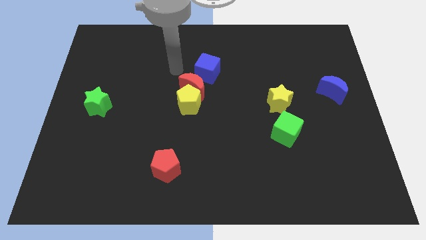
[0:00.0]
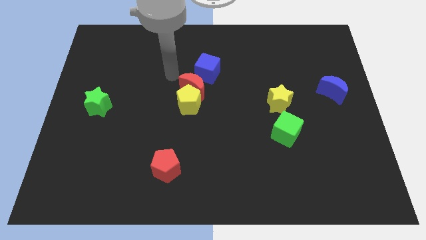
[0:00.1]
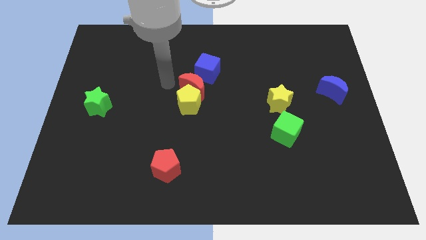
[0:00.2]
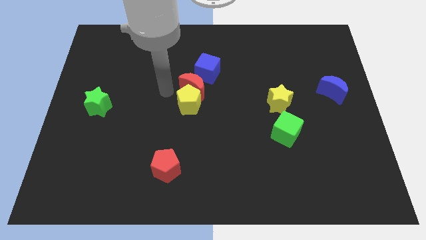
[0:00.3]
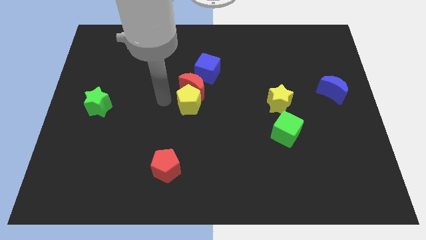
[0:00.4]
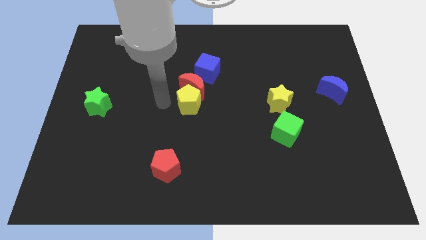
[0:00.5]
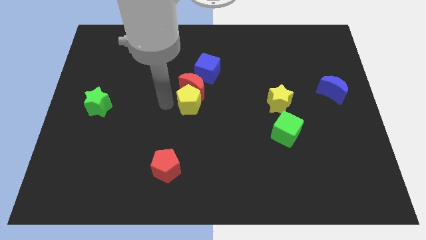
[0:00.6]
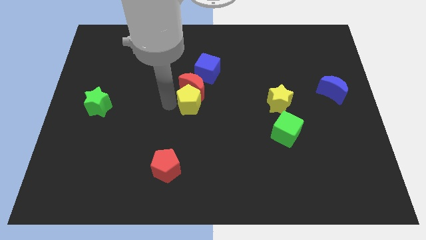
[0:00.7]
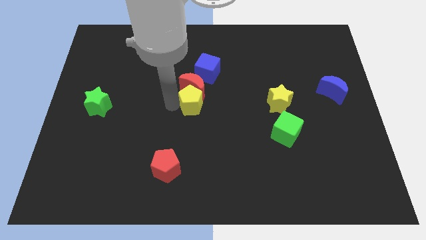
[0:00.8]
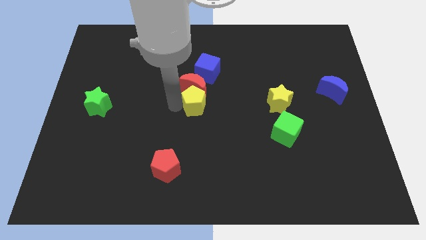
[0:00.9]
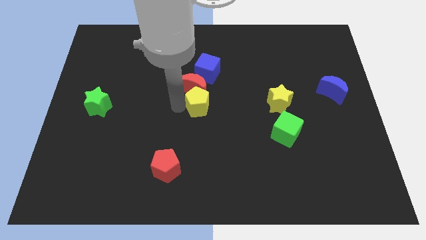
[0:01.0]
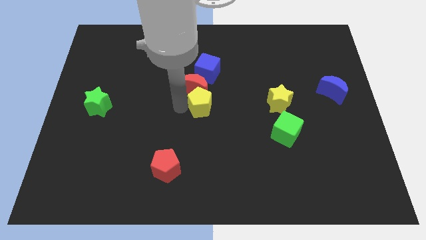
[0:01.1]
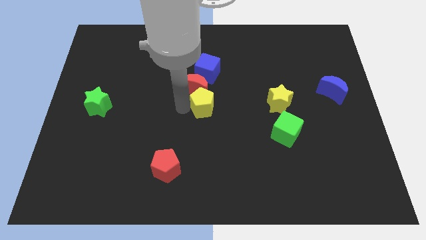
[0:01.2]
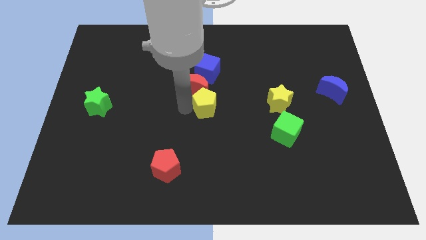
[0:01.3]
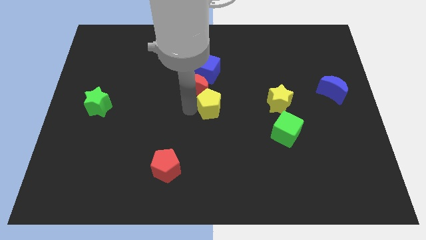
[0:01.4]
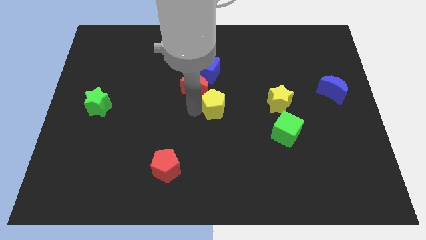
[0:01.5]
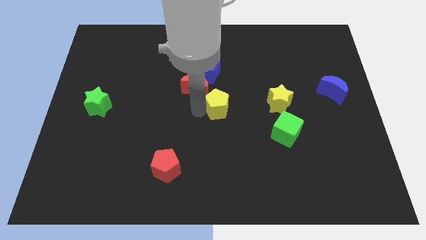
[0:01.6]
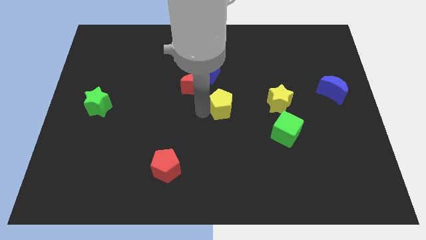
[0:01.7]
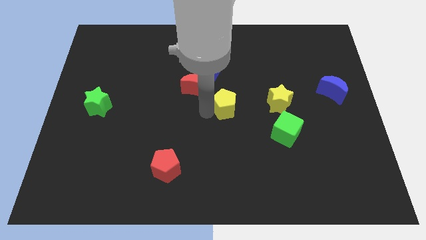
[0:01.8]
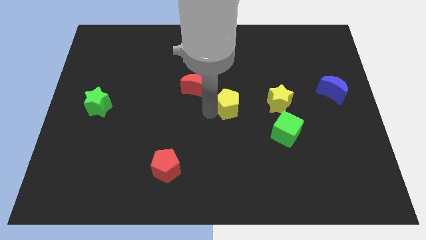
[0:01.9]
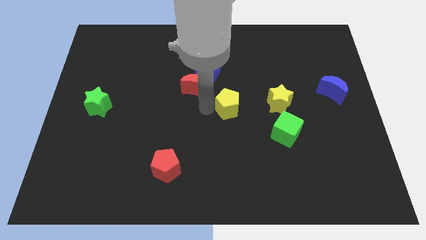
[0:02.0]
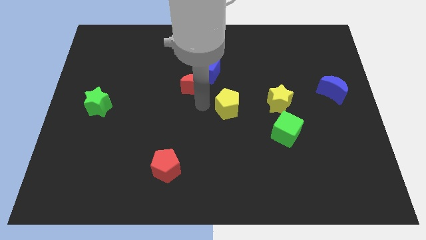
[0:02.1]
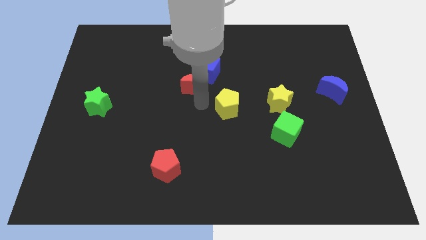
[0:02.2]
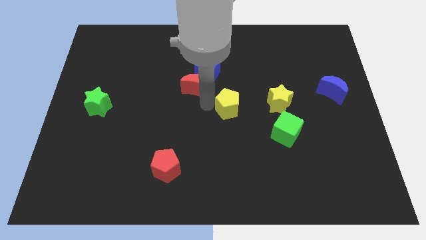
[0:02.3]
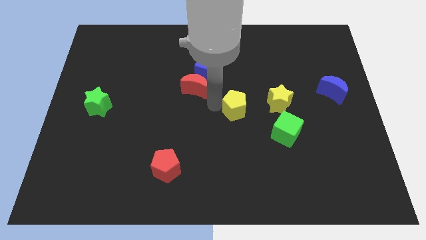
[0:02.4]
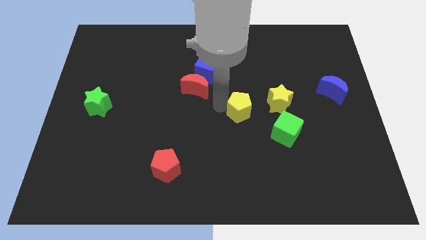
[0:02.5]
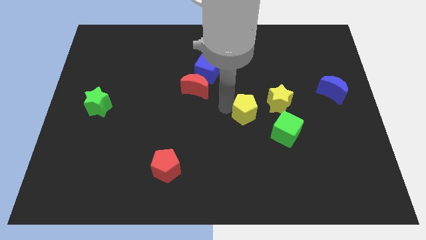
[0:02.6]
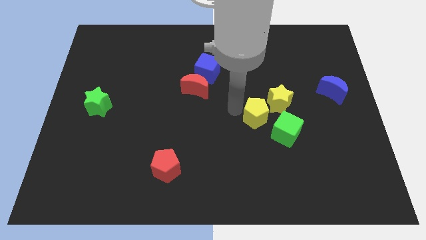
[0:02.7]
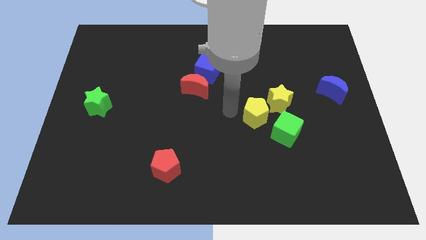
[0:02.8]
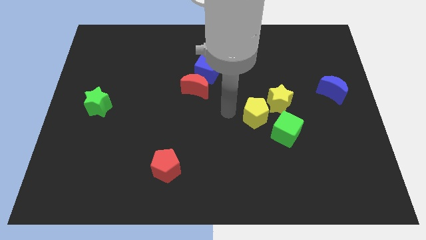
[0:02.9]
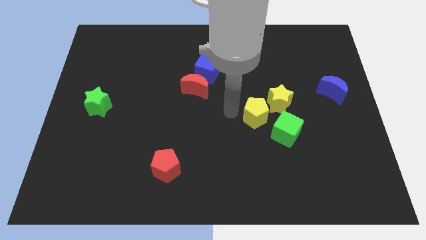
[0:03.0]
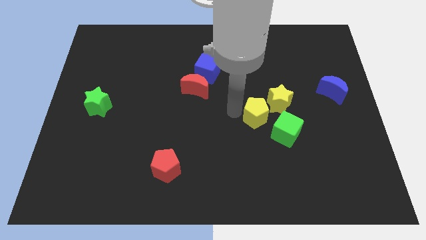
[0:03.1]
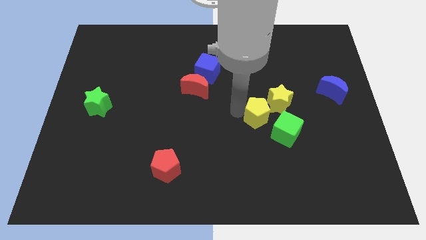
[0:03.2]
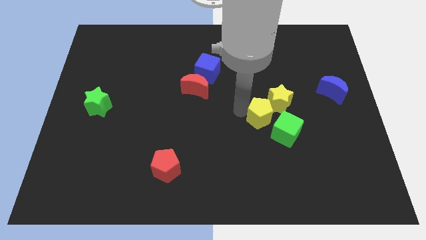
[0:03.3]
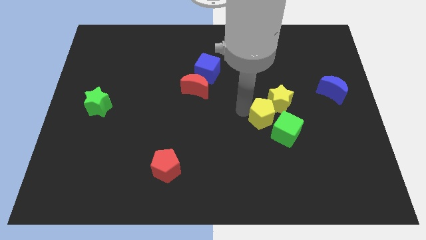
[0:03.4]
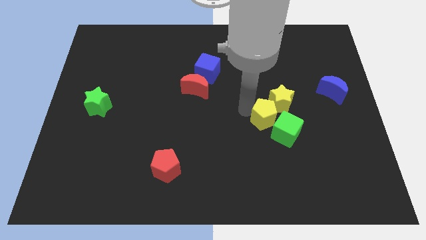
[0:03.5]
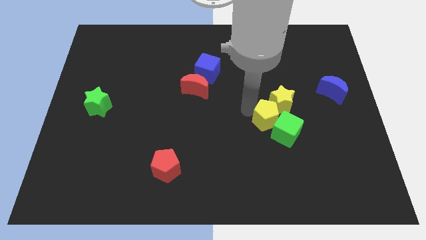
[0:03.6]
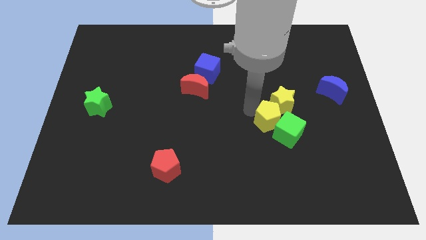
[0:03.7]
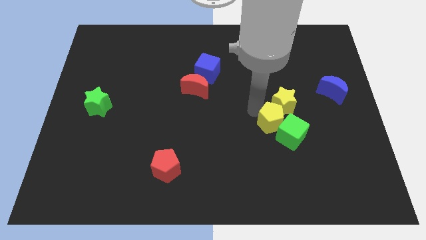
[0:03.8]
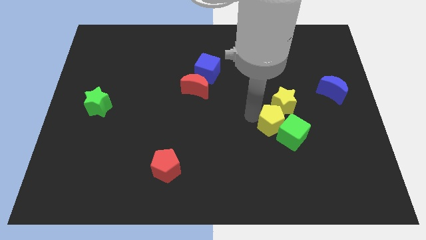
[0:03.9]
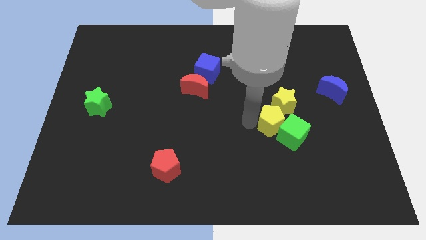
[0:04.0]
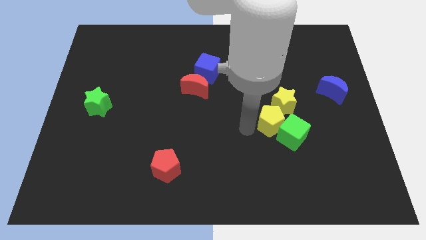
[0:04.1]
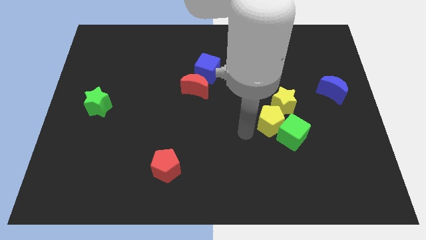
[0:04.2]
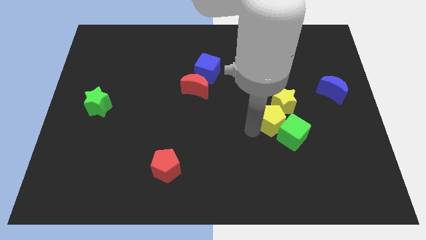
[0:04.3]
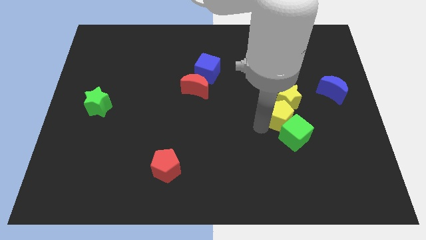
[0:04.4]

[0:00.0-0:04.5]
push the yellow pentagon to the right

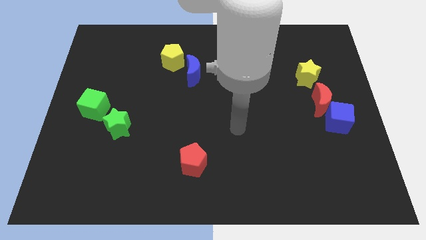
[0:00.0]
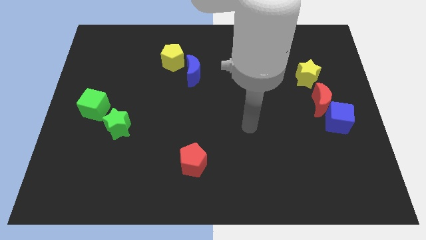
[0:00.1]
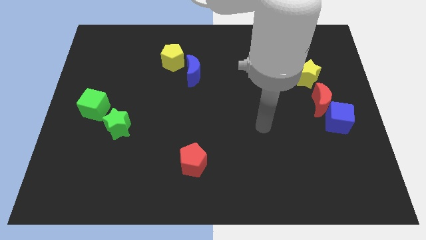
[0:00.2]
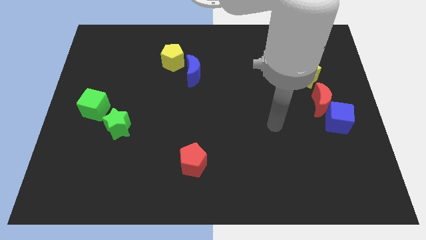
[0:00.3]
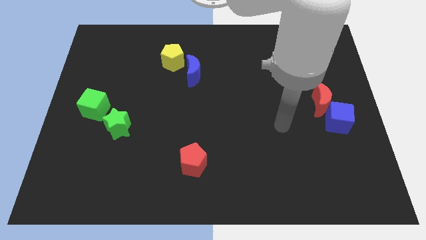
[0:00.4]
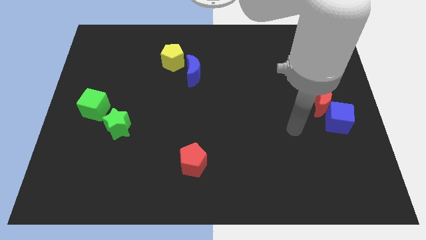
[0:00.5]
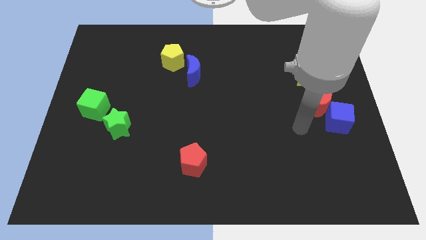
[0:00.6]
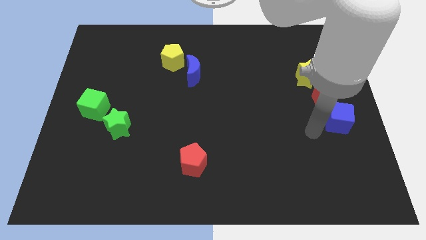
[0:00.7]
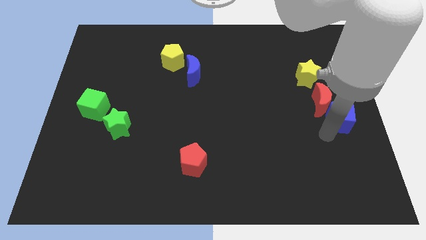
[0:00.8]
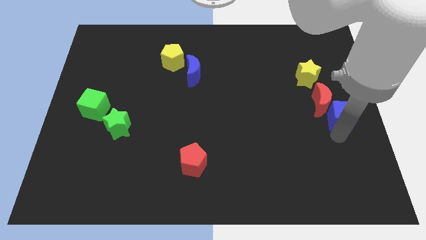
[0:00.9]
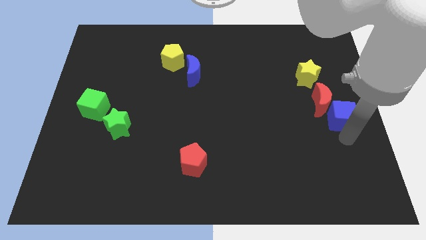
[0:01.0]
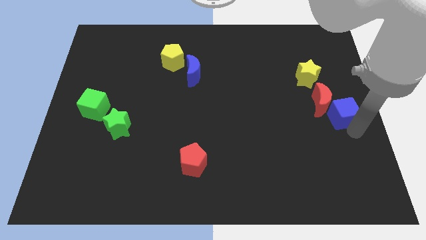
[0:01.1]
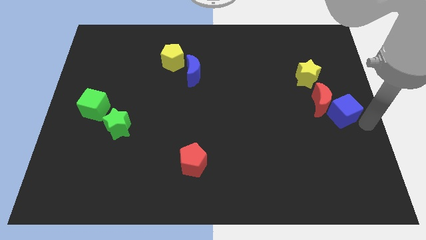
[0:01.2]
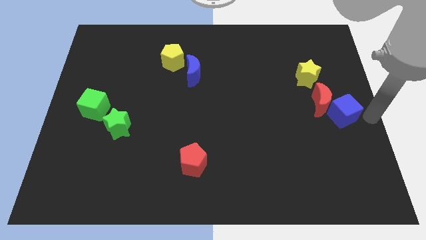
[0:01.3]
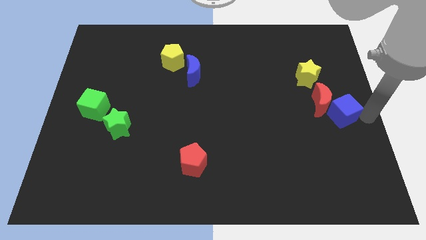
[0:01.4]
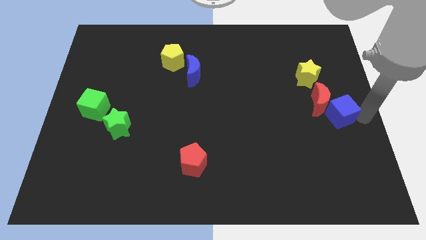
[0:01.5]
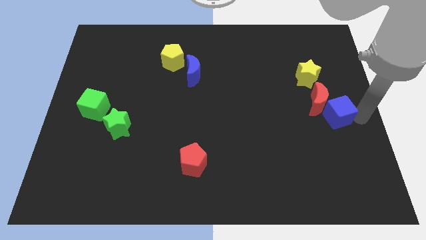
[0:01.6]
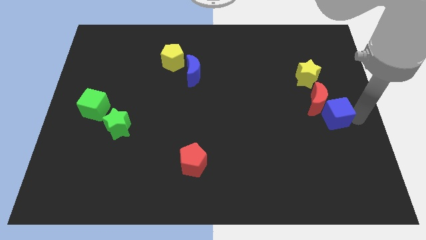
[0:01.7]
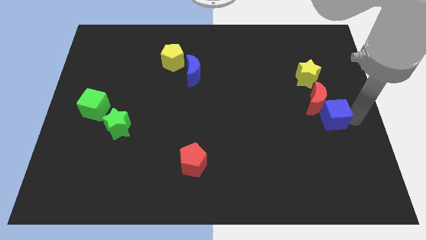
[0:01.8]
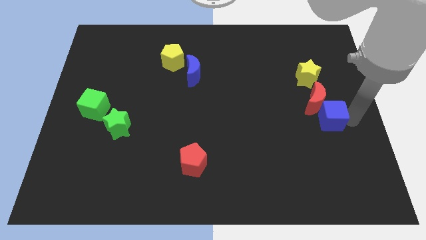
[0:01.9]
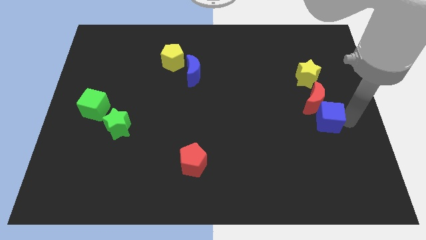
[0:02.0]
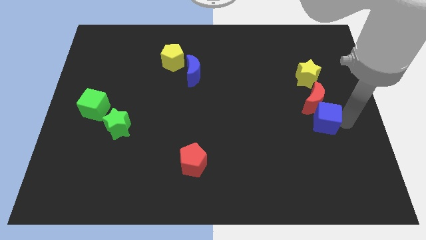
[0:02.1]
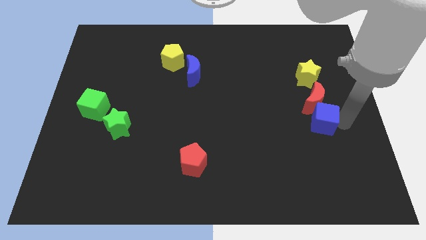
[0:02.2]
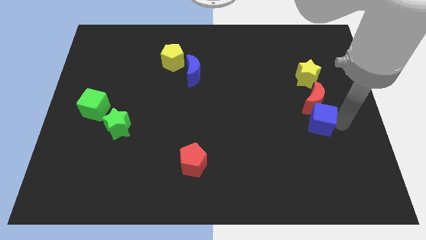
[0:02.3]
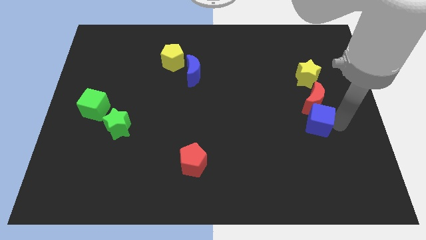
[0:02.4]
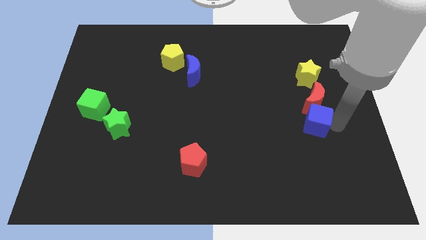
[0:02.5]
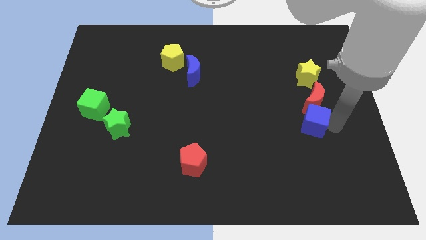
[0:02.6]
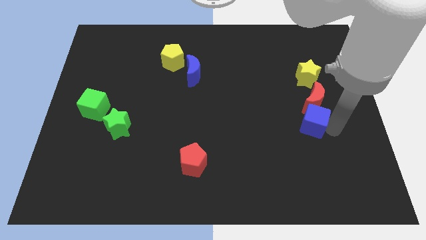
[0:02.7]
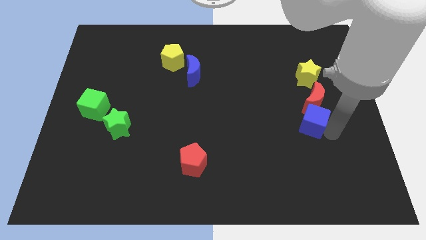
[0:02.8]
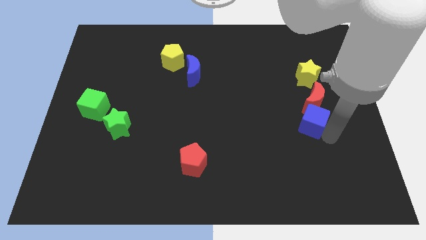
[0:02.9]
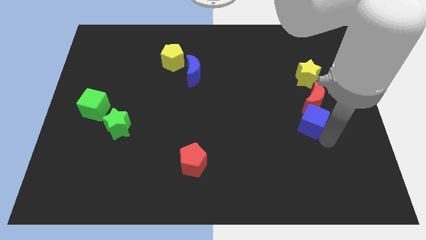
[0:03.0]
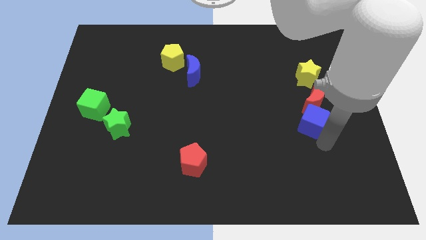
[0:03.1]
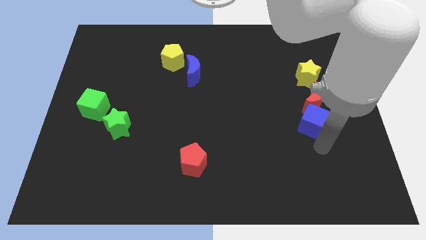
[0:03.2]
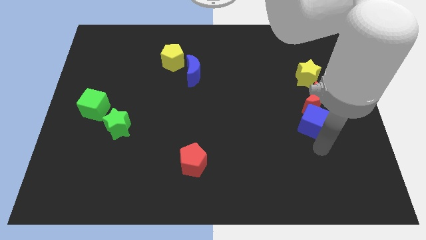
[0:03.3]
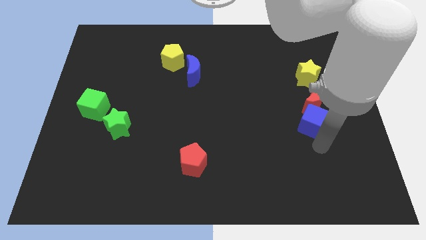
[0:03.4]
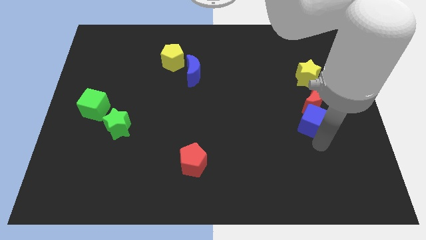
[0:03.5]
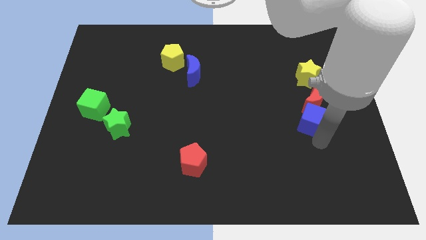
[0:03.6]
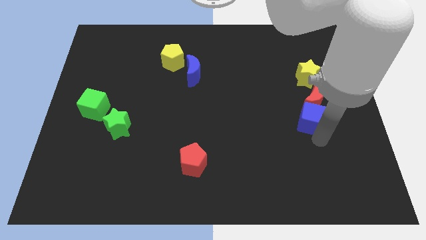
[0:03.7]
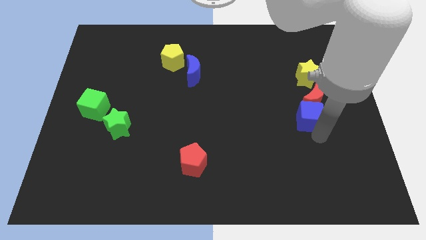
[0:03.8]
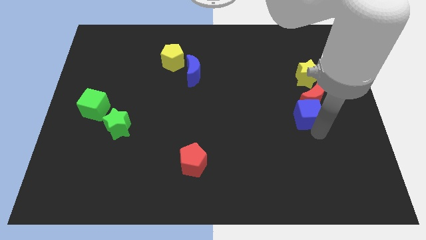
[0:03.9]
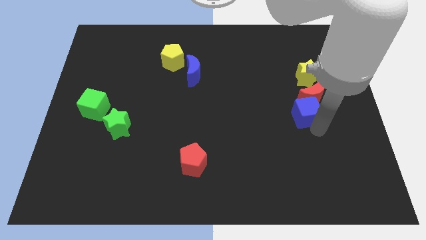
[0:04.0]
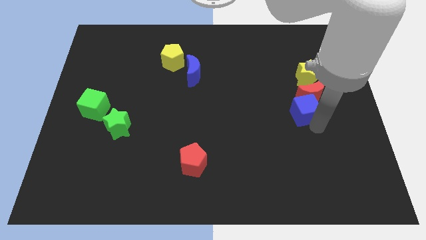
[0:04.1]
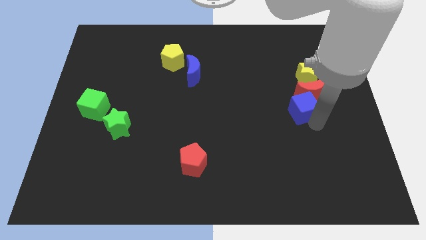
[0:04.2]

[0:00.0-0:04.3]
move the blue cube up and then left a little bit
